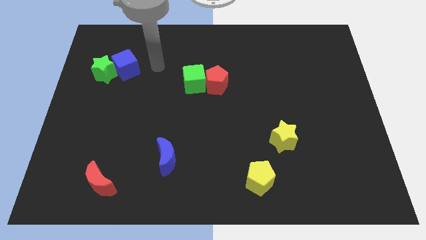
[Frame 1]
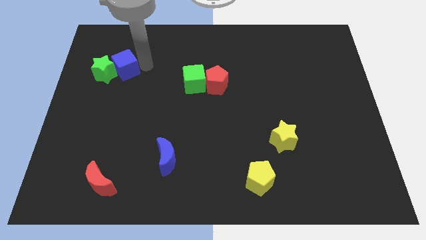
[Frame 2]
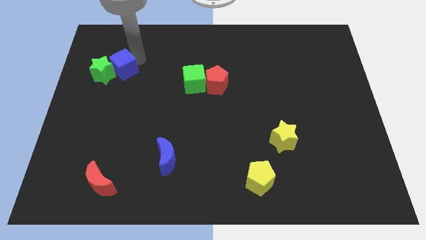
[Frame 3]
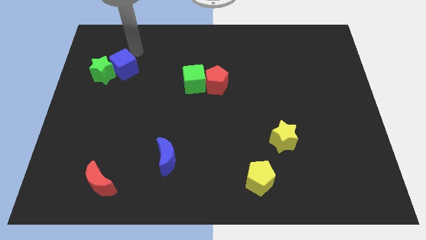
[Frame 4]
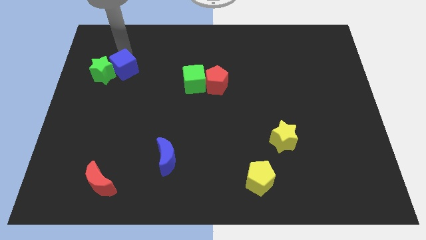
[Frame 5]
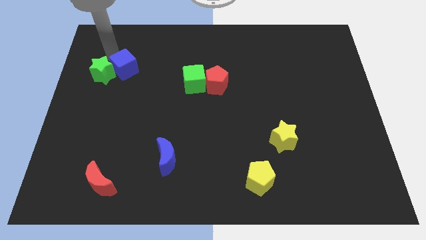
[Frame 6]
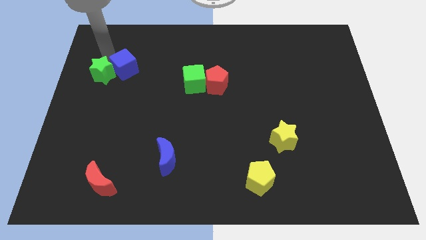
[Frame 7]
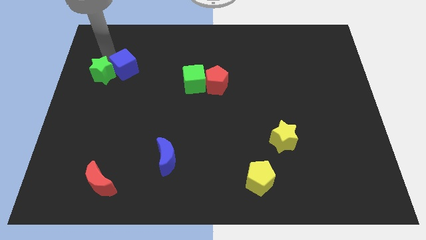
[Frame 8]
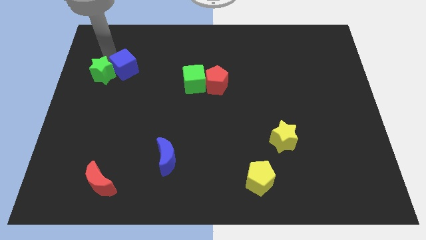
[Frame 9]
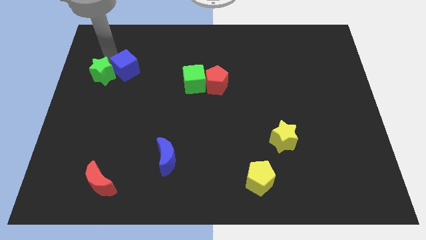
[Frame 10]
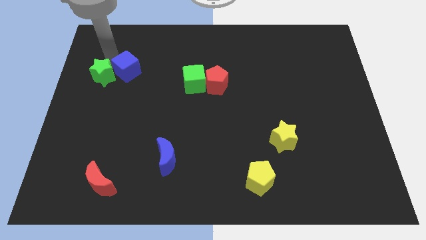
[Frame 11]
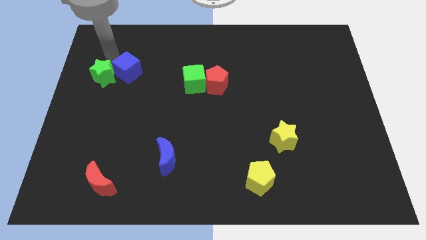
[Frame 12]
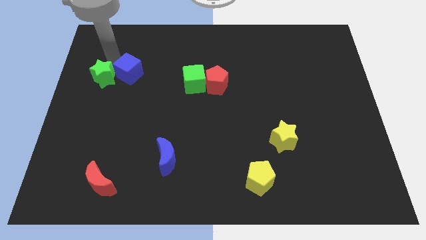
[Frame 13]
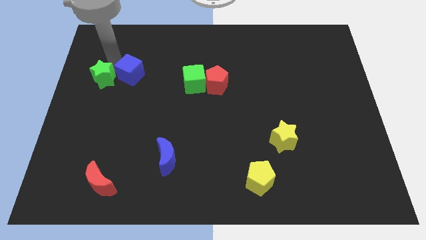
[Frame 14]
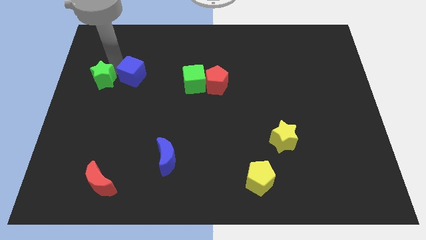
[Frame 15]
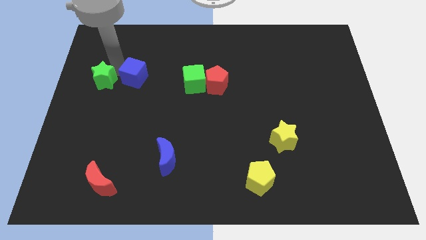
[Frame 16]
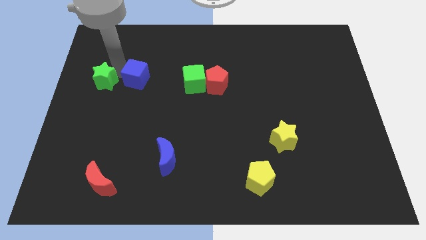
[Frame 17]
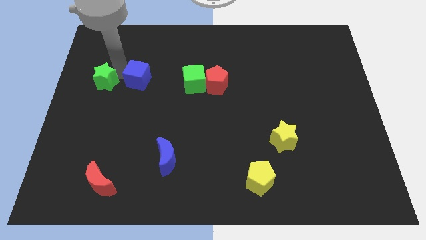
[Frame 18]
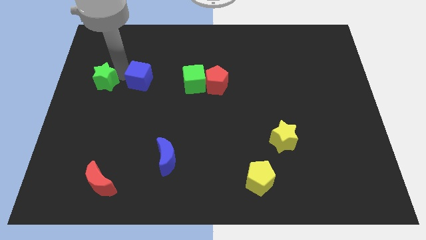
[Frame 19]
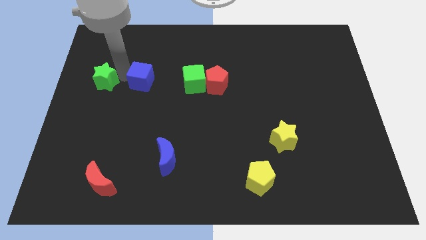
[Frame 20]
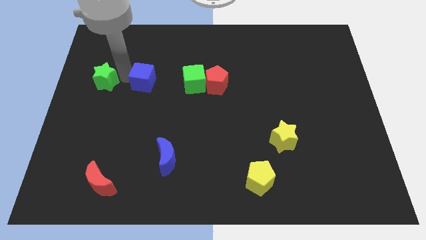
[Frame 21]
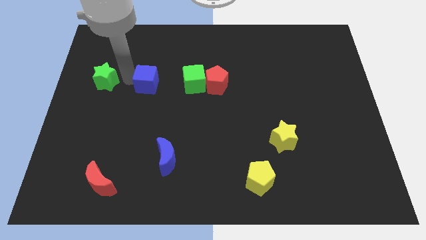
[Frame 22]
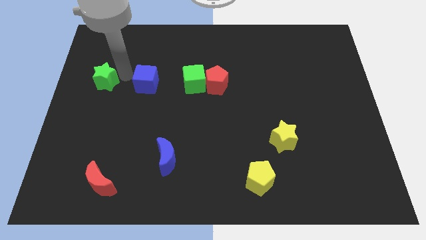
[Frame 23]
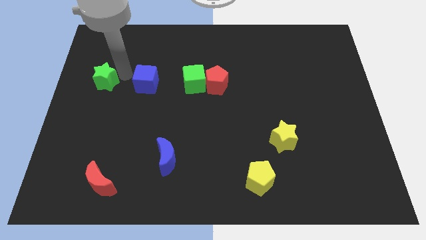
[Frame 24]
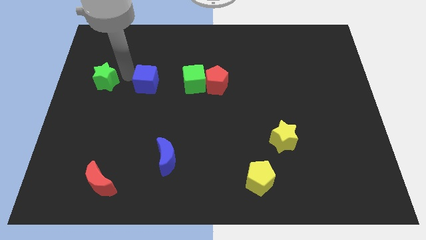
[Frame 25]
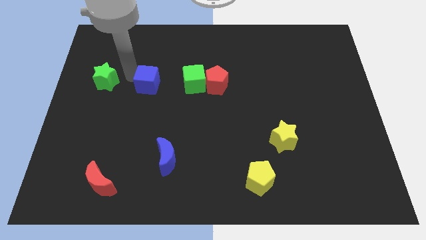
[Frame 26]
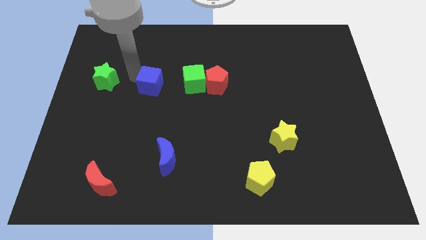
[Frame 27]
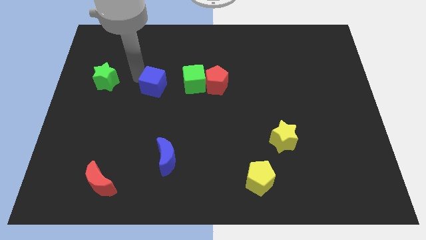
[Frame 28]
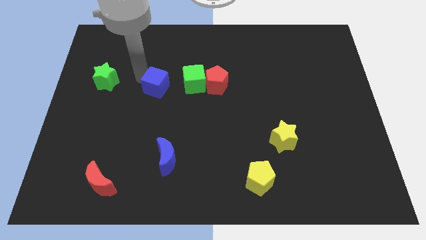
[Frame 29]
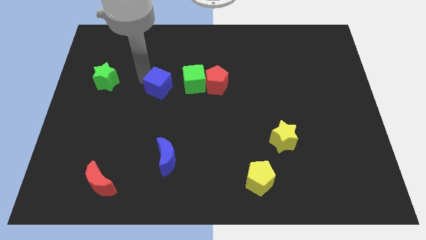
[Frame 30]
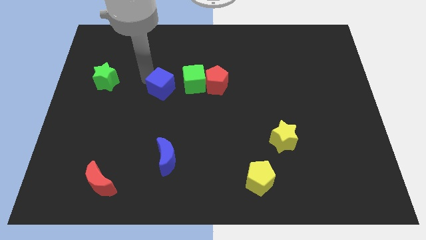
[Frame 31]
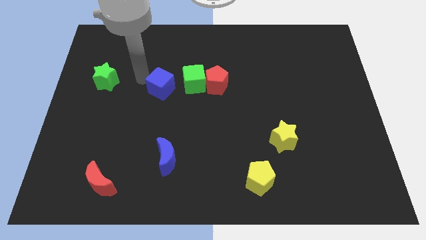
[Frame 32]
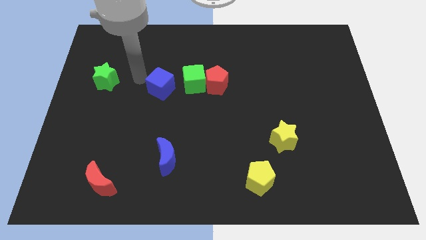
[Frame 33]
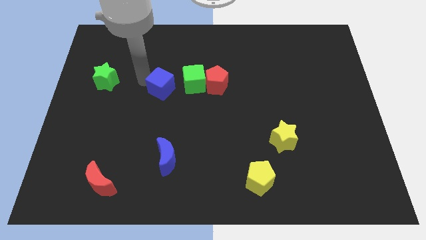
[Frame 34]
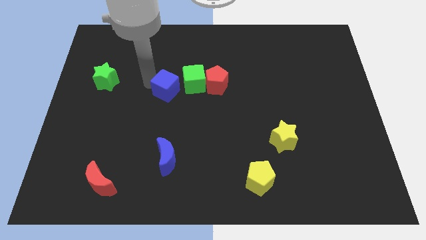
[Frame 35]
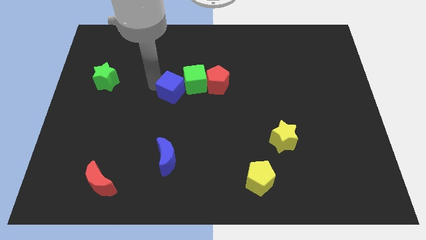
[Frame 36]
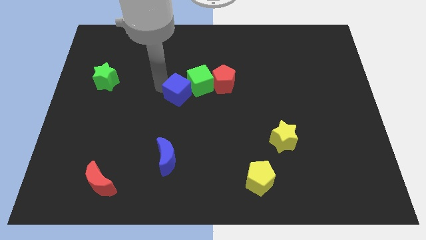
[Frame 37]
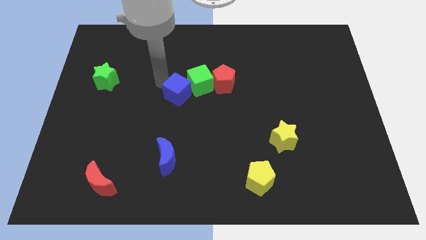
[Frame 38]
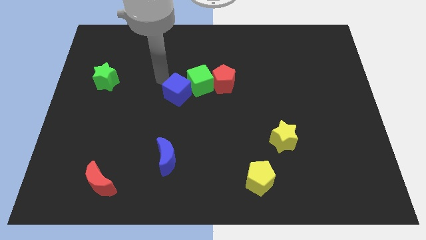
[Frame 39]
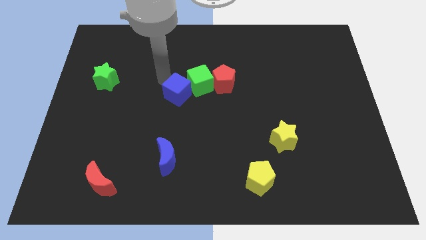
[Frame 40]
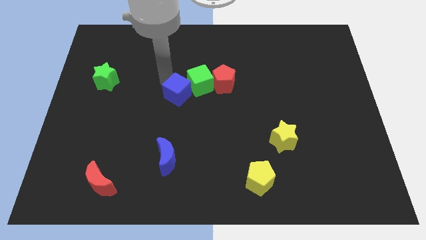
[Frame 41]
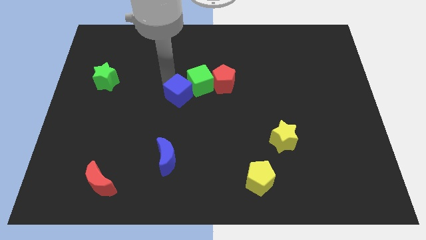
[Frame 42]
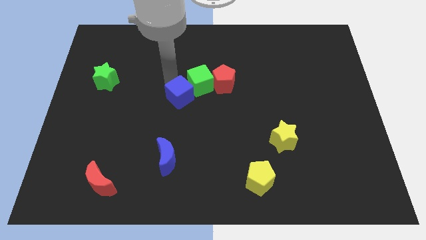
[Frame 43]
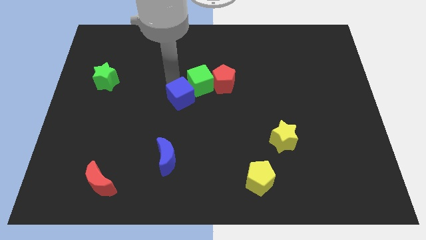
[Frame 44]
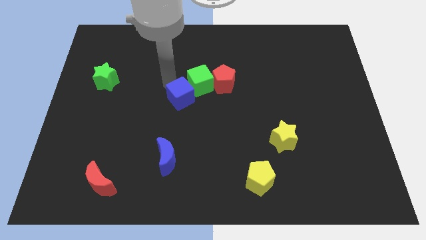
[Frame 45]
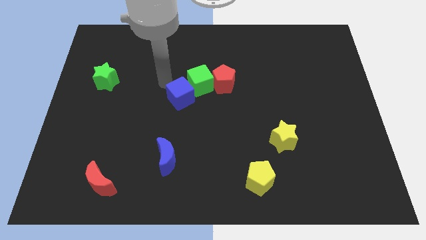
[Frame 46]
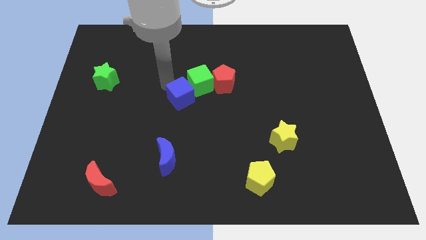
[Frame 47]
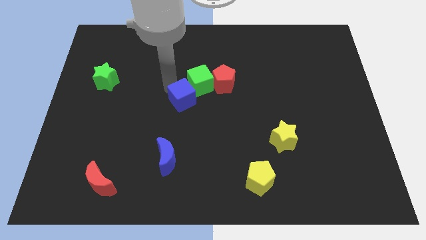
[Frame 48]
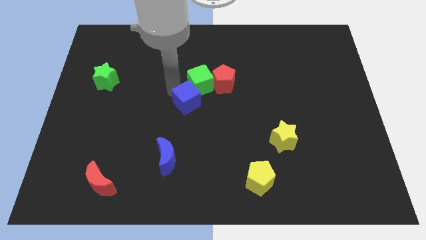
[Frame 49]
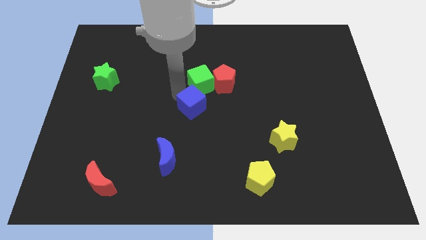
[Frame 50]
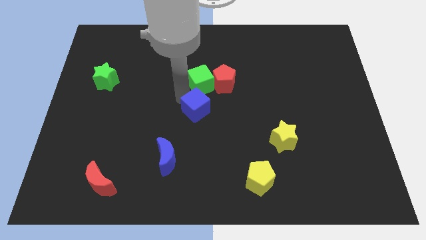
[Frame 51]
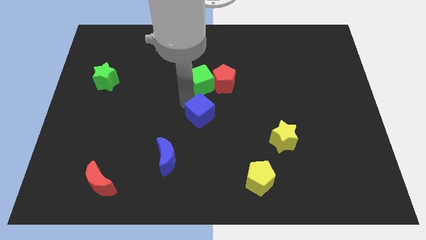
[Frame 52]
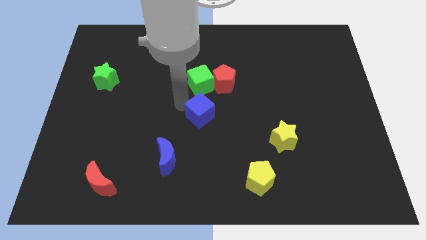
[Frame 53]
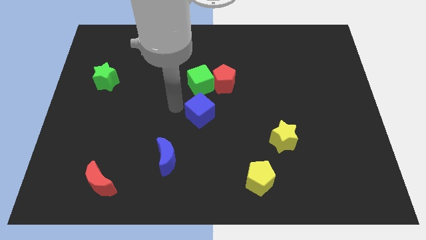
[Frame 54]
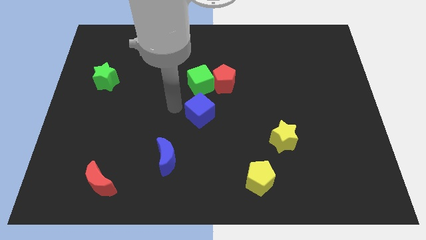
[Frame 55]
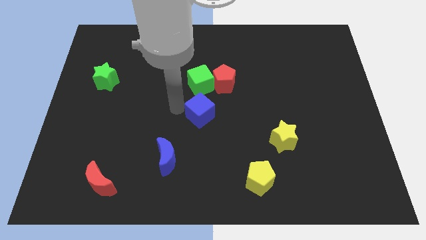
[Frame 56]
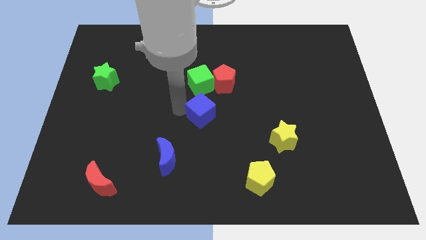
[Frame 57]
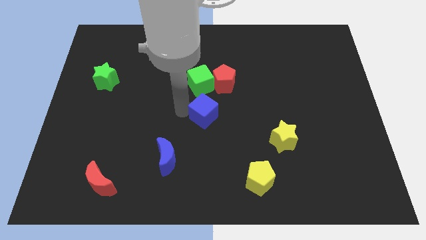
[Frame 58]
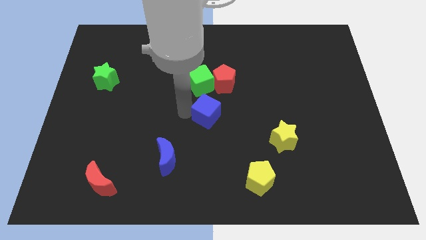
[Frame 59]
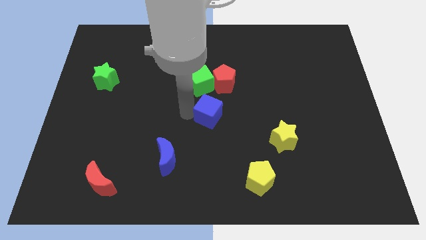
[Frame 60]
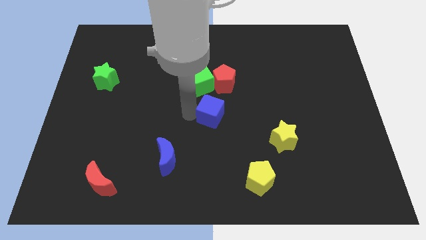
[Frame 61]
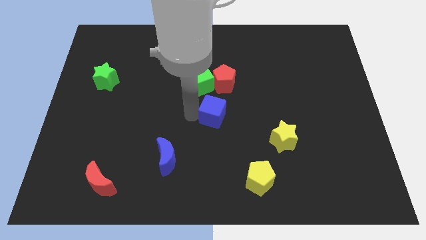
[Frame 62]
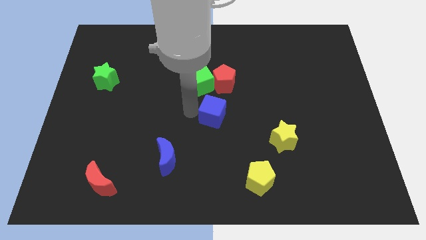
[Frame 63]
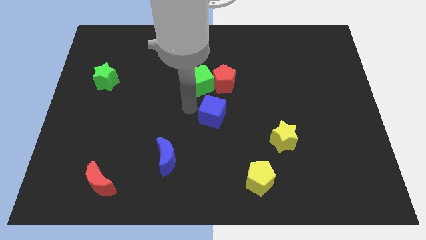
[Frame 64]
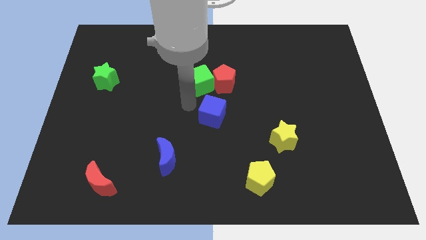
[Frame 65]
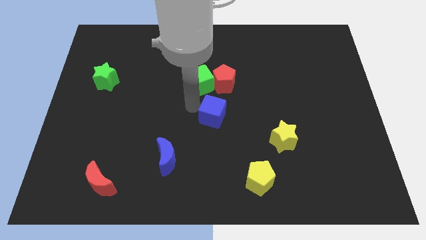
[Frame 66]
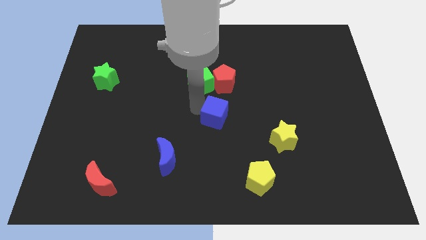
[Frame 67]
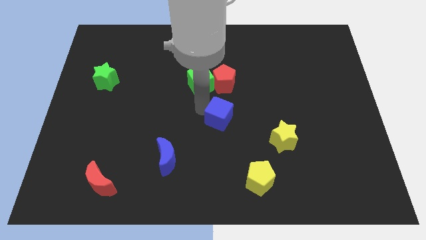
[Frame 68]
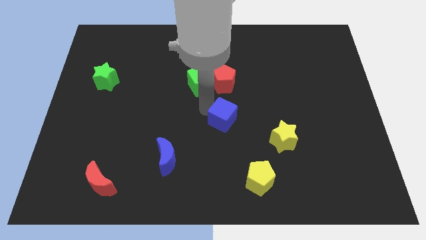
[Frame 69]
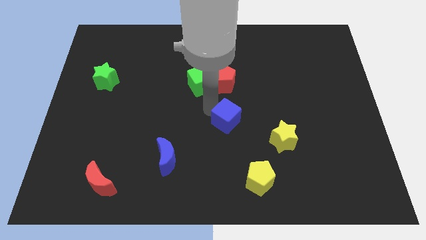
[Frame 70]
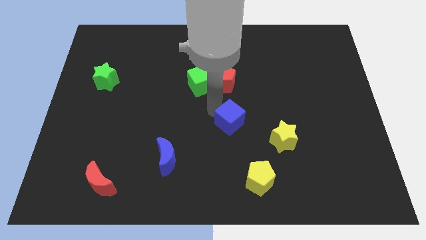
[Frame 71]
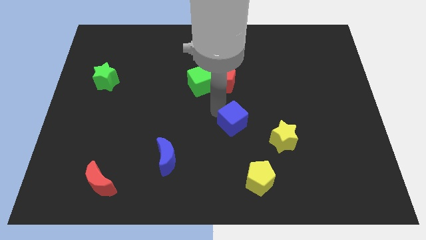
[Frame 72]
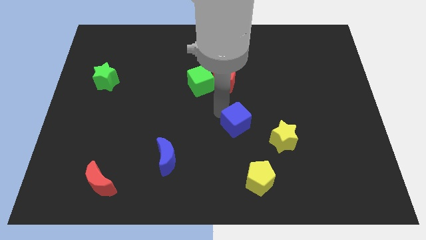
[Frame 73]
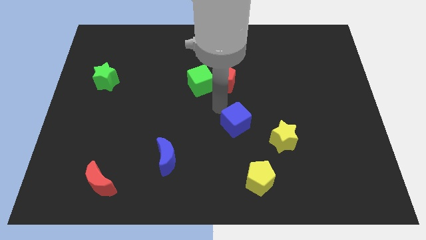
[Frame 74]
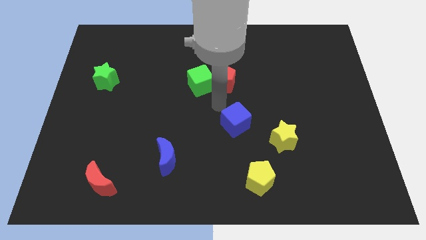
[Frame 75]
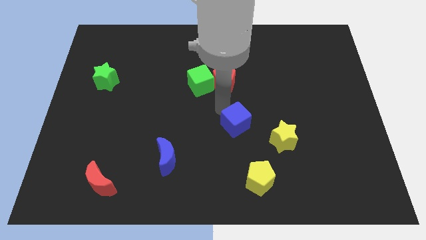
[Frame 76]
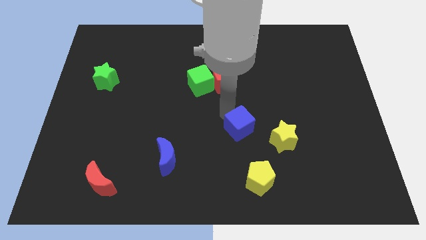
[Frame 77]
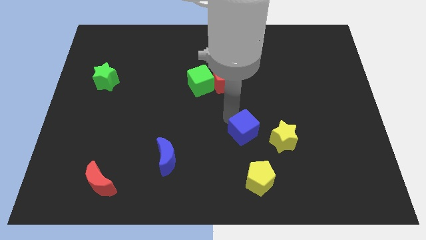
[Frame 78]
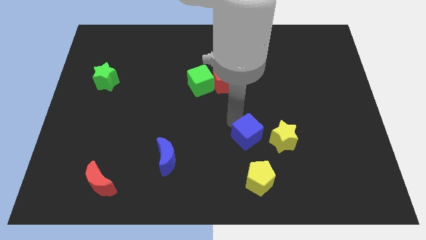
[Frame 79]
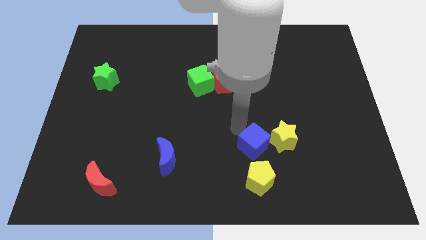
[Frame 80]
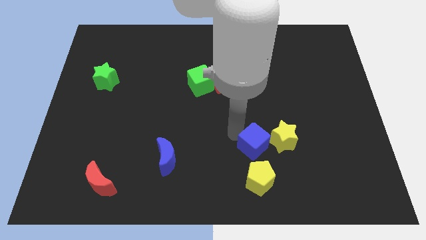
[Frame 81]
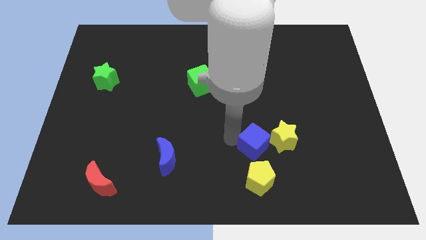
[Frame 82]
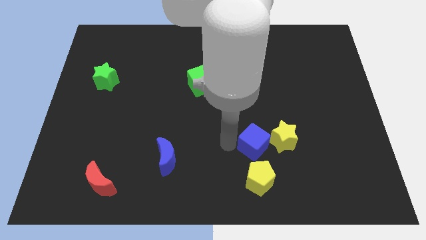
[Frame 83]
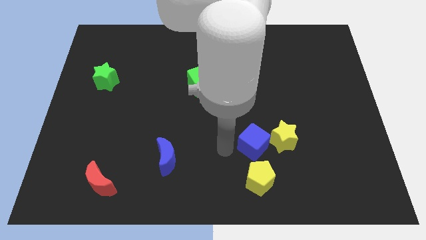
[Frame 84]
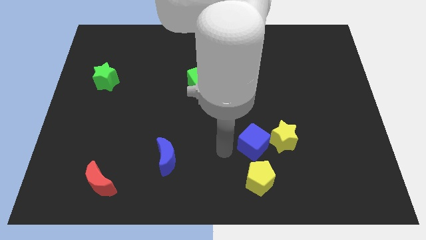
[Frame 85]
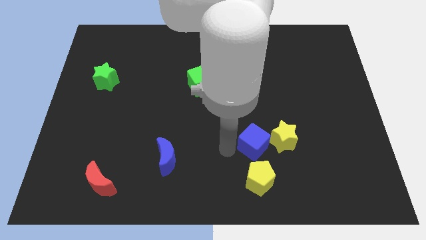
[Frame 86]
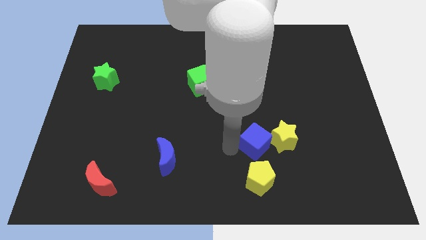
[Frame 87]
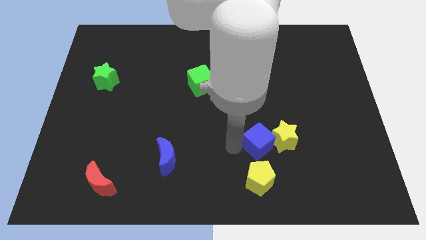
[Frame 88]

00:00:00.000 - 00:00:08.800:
push the blue cube to the yellow star
